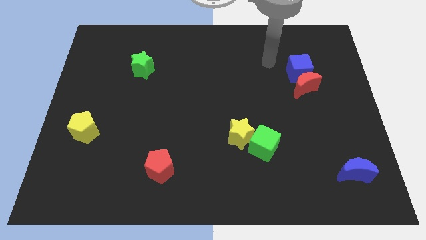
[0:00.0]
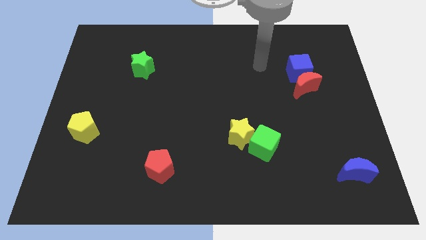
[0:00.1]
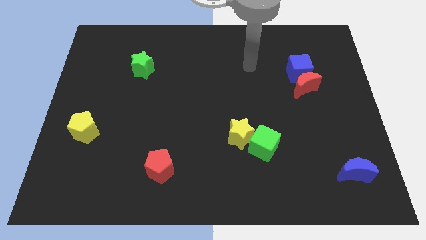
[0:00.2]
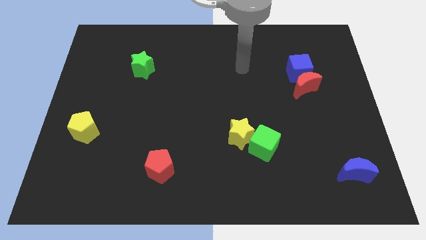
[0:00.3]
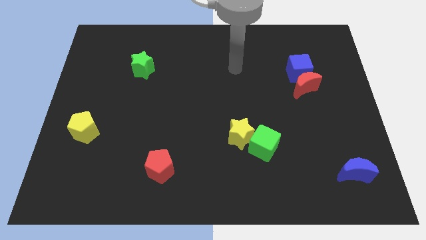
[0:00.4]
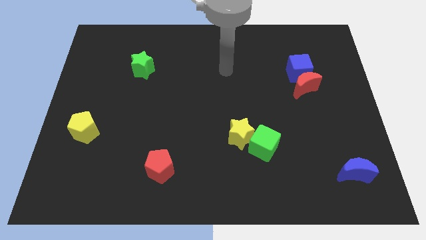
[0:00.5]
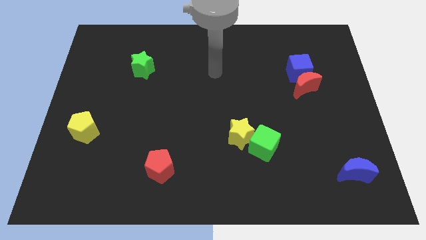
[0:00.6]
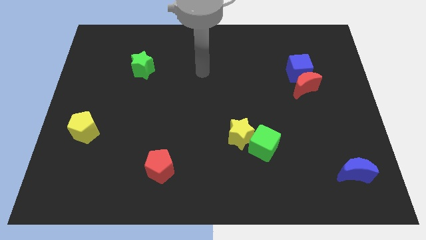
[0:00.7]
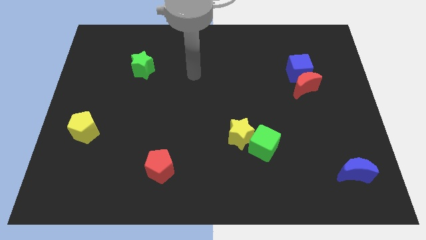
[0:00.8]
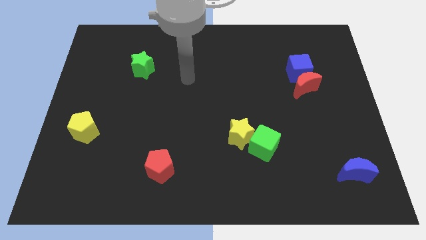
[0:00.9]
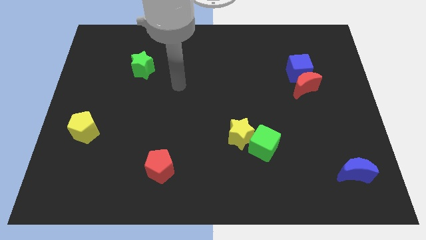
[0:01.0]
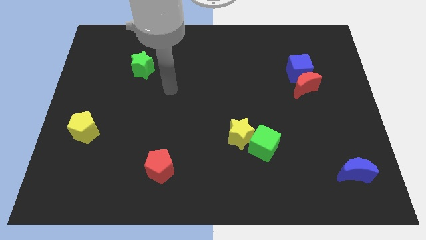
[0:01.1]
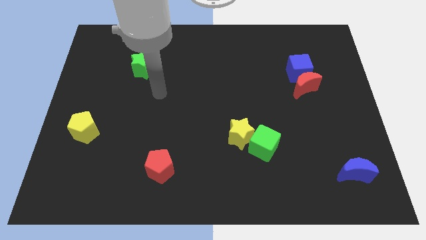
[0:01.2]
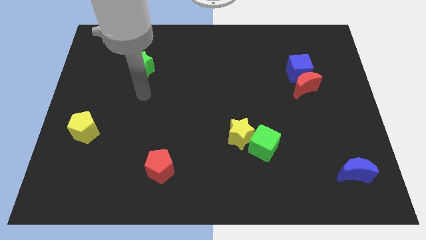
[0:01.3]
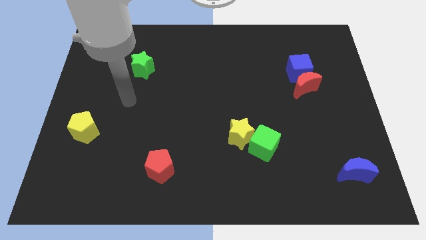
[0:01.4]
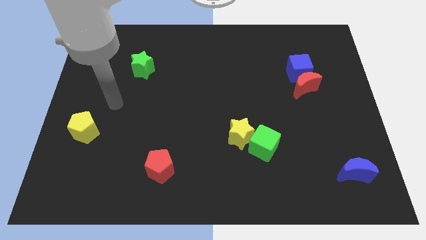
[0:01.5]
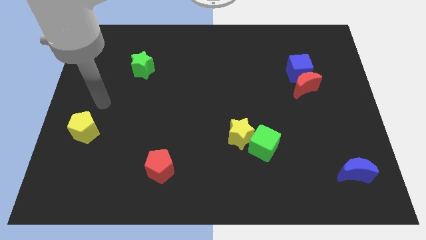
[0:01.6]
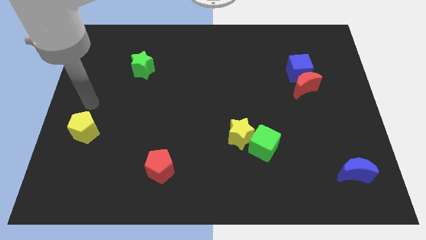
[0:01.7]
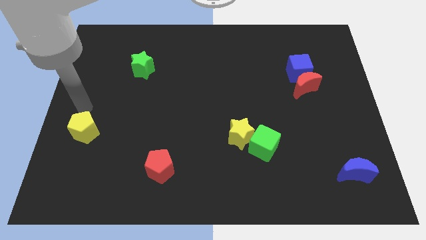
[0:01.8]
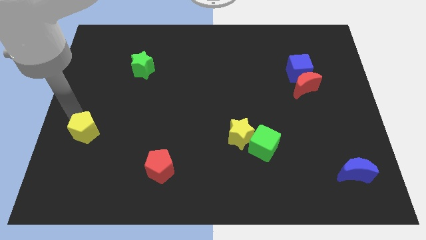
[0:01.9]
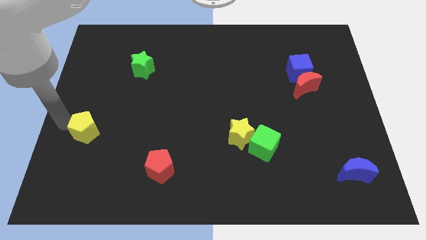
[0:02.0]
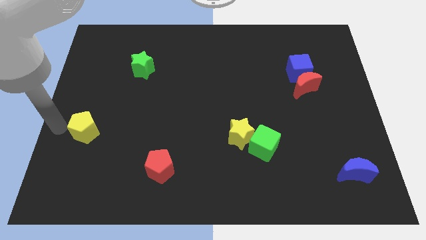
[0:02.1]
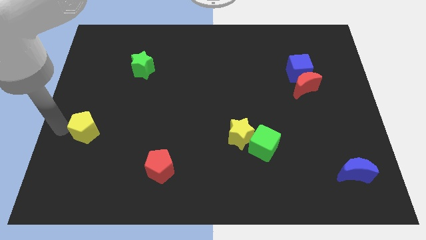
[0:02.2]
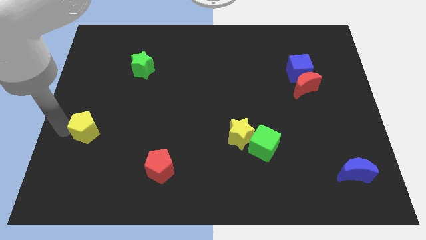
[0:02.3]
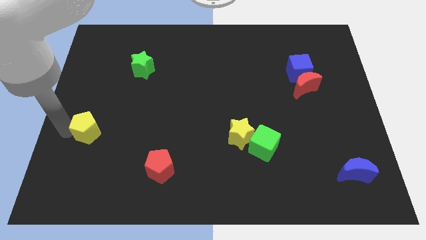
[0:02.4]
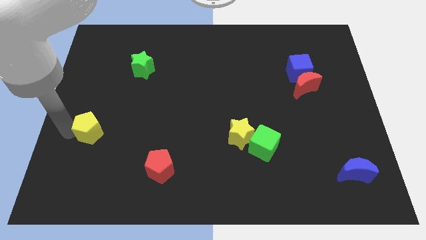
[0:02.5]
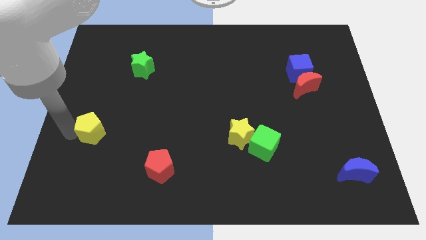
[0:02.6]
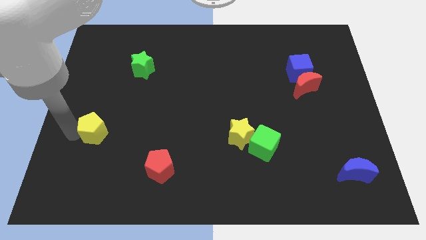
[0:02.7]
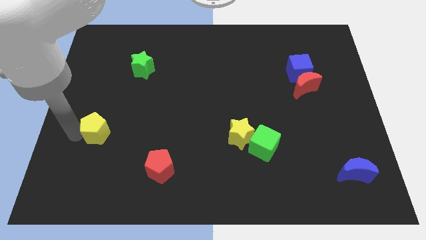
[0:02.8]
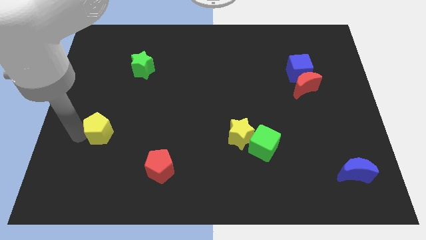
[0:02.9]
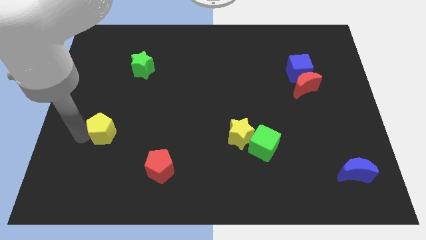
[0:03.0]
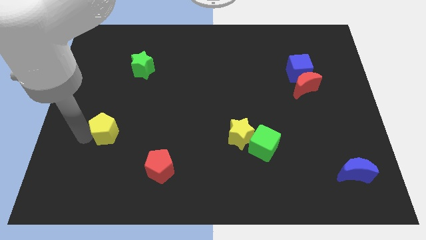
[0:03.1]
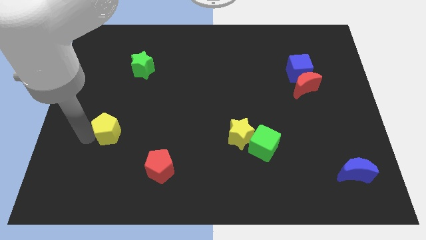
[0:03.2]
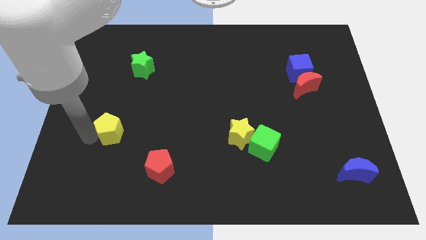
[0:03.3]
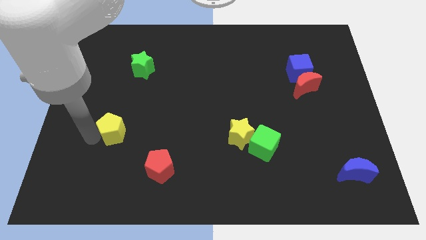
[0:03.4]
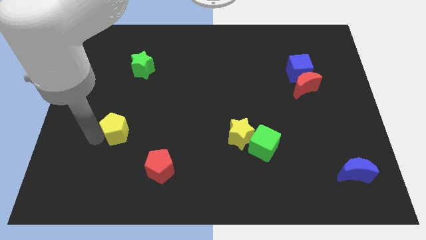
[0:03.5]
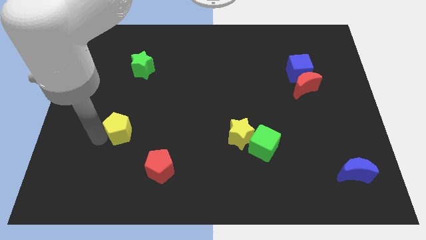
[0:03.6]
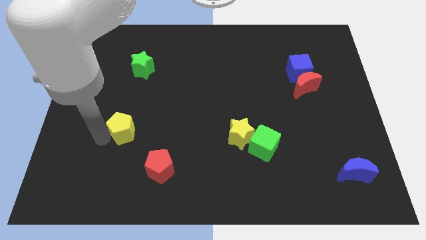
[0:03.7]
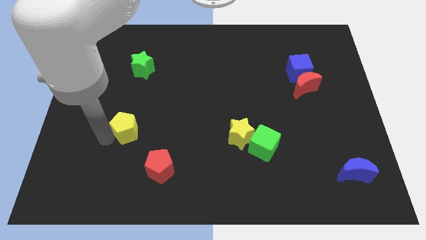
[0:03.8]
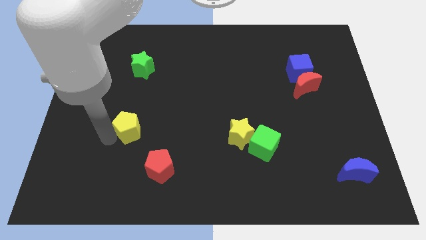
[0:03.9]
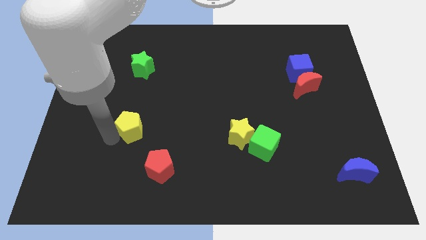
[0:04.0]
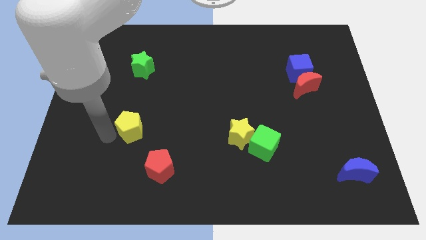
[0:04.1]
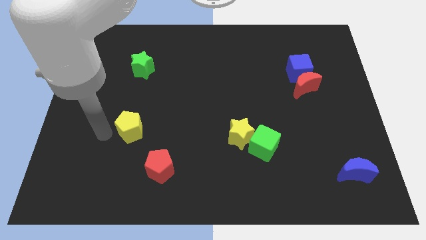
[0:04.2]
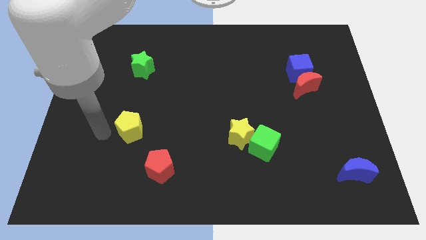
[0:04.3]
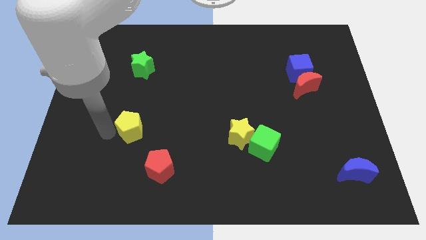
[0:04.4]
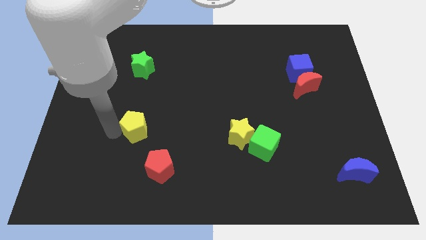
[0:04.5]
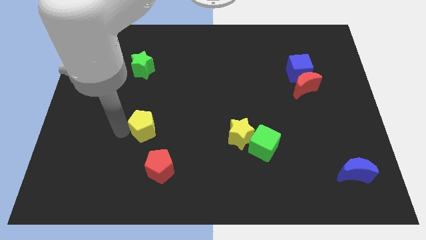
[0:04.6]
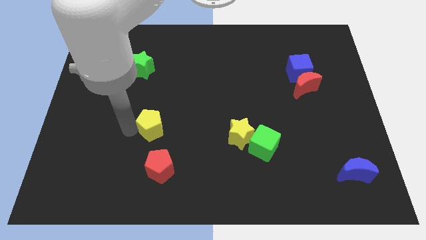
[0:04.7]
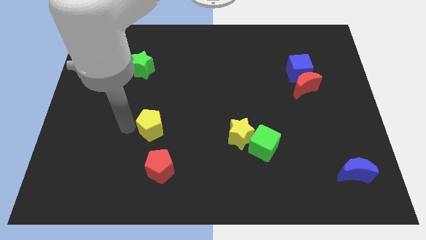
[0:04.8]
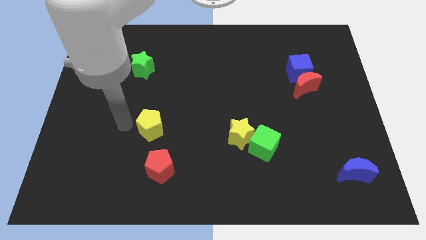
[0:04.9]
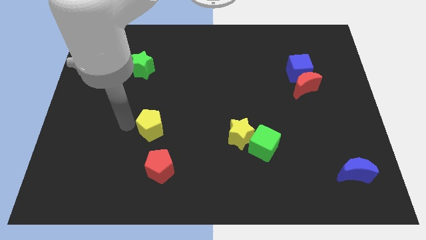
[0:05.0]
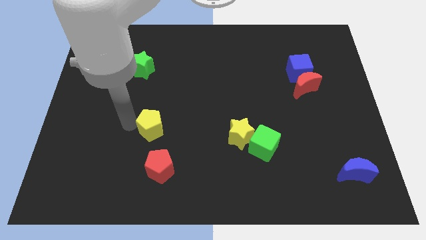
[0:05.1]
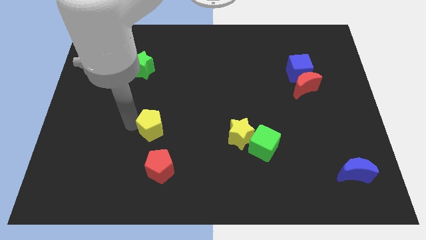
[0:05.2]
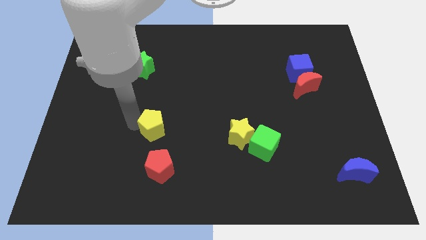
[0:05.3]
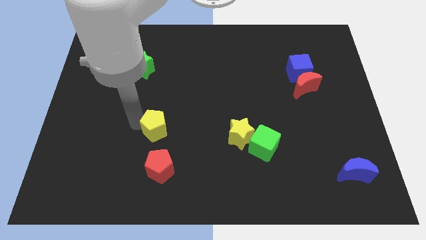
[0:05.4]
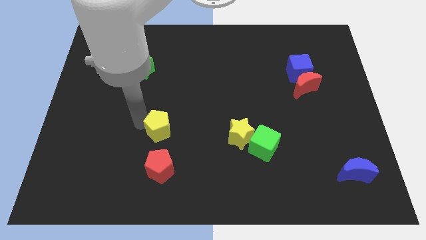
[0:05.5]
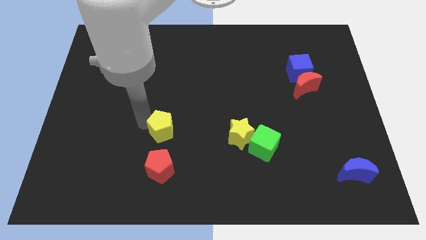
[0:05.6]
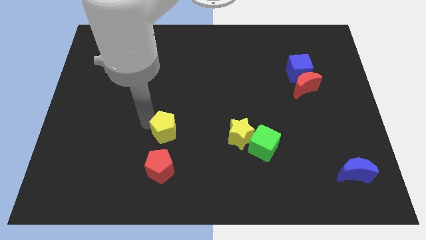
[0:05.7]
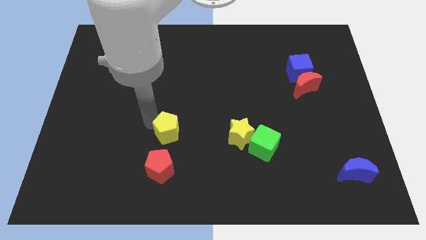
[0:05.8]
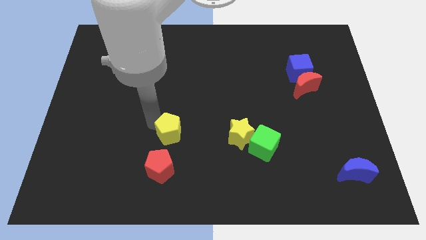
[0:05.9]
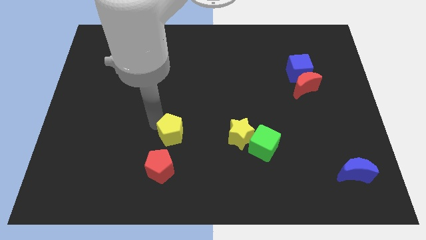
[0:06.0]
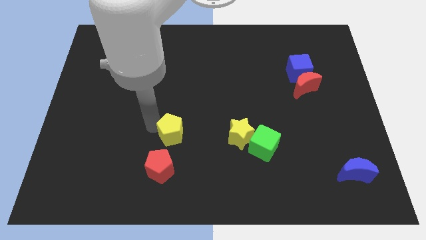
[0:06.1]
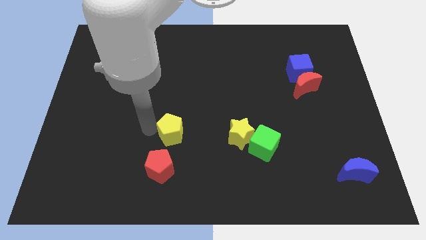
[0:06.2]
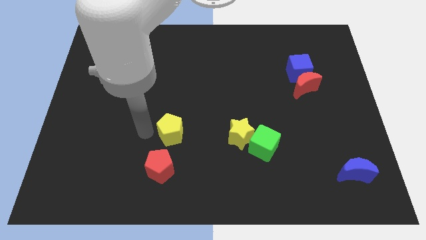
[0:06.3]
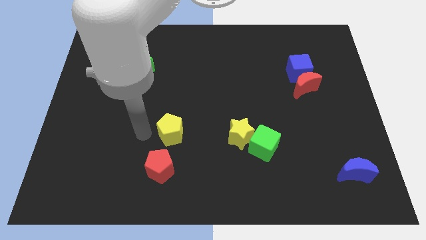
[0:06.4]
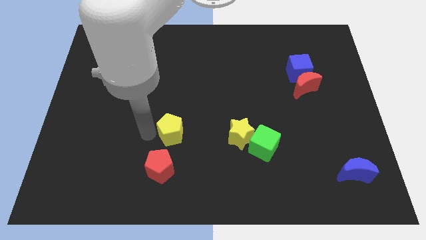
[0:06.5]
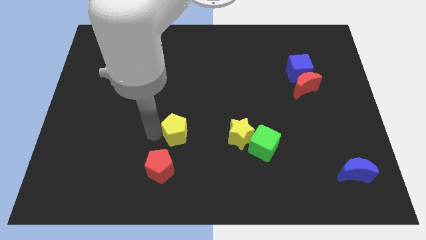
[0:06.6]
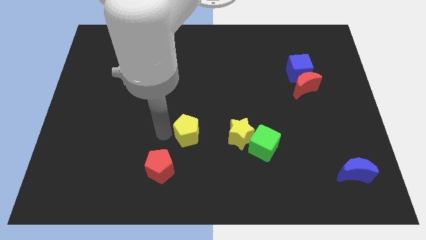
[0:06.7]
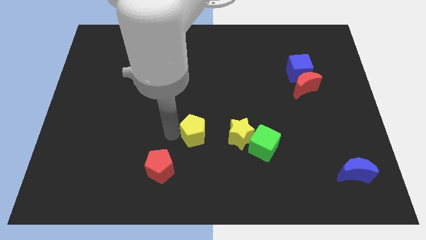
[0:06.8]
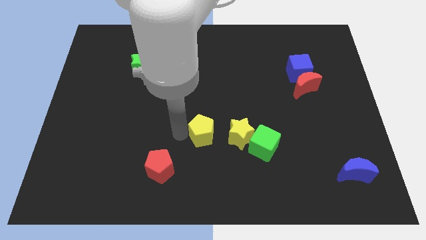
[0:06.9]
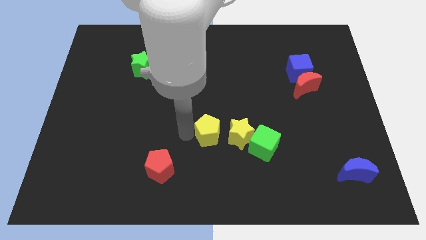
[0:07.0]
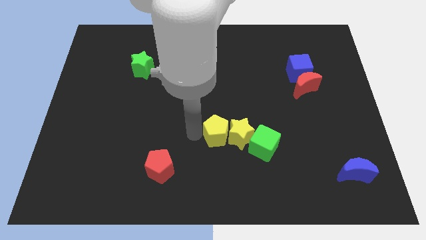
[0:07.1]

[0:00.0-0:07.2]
put the yellow pentagon towards the yellow star
